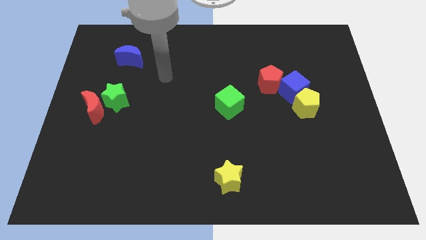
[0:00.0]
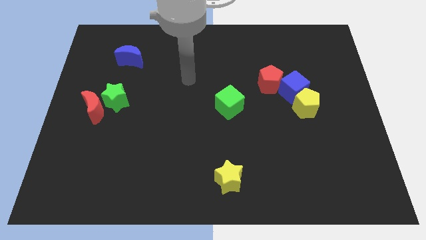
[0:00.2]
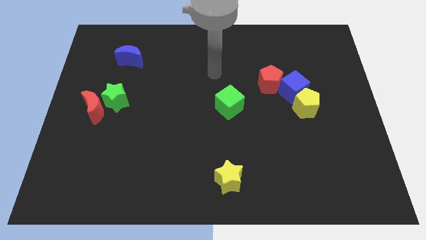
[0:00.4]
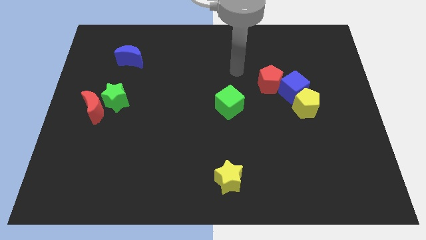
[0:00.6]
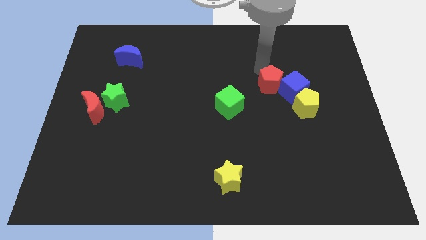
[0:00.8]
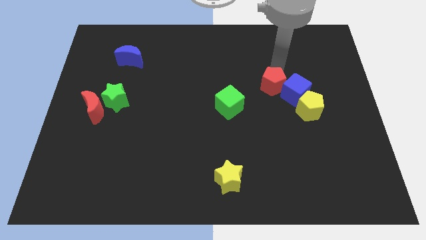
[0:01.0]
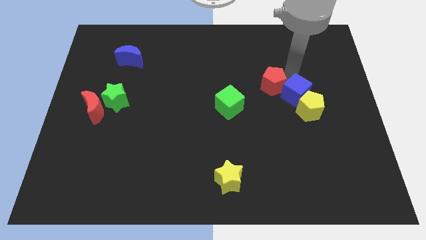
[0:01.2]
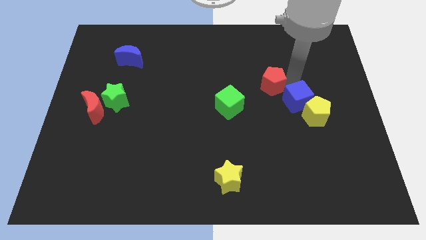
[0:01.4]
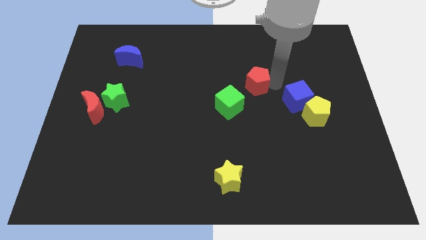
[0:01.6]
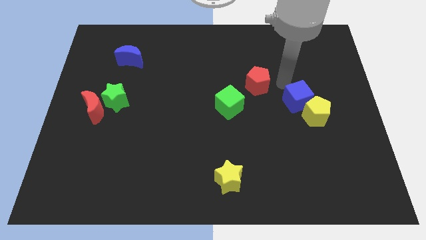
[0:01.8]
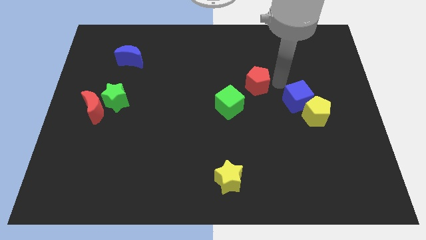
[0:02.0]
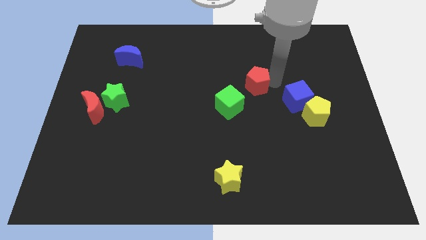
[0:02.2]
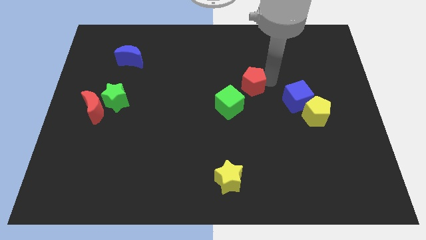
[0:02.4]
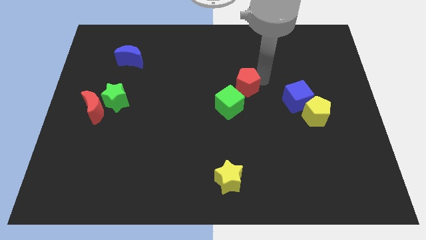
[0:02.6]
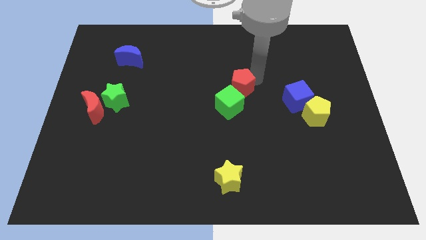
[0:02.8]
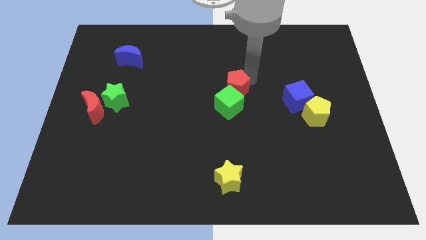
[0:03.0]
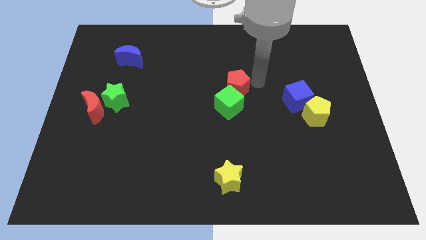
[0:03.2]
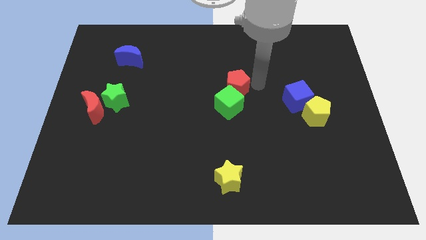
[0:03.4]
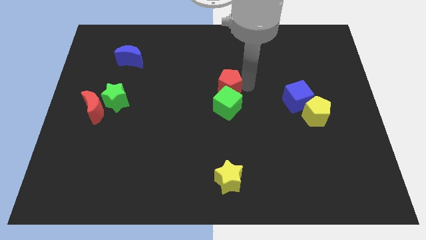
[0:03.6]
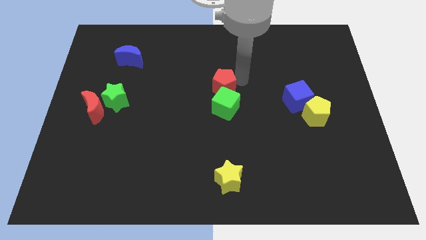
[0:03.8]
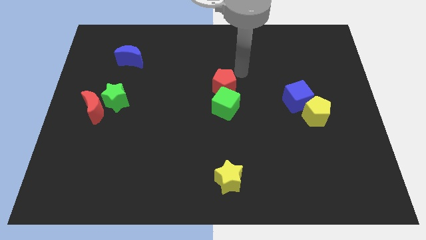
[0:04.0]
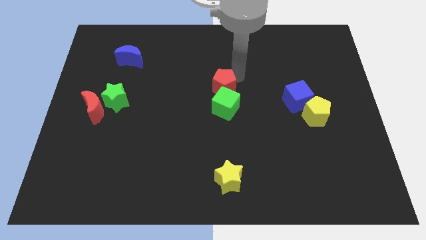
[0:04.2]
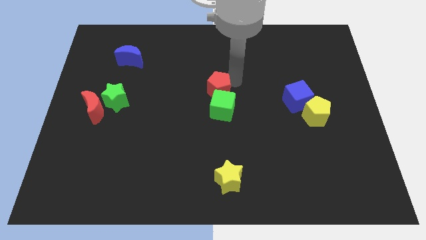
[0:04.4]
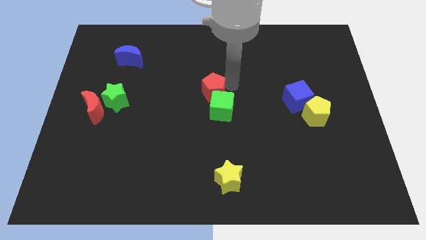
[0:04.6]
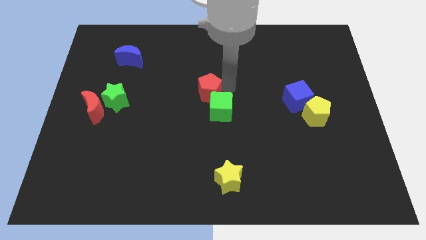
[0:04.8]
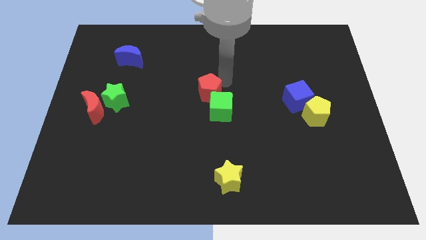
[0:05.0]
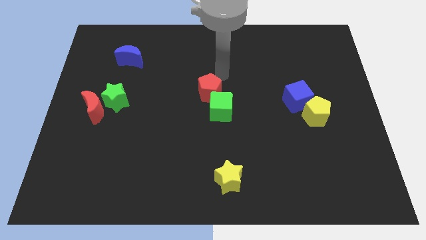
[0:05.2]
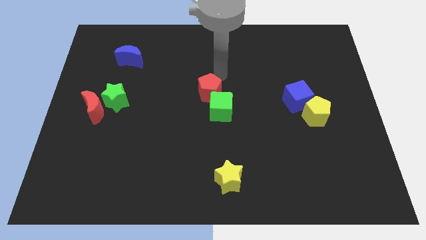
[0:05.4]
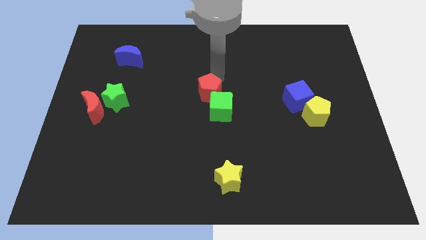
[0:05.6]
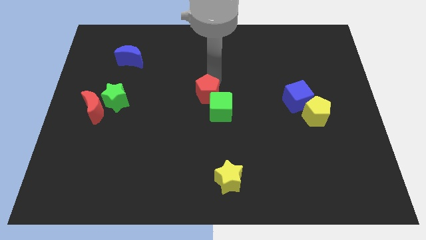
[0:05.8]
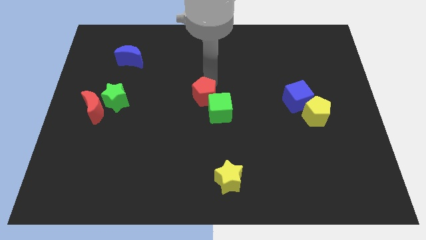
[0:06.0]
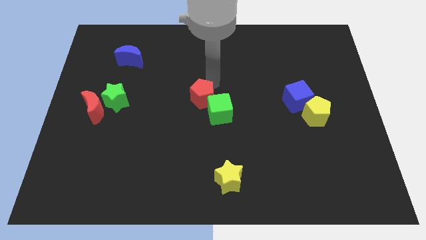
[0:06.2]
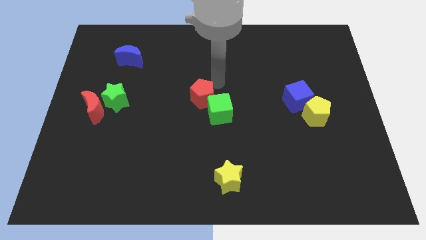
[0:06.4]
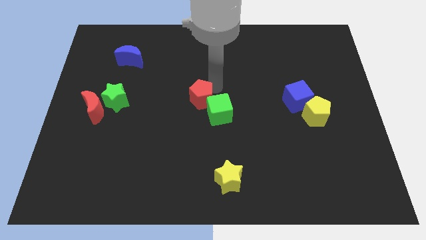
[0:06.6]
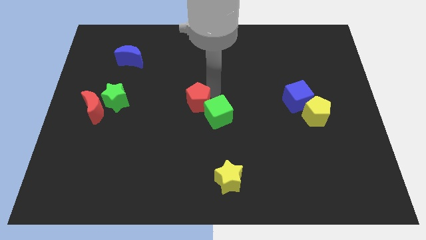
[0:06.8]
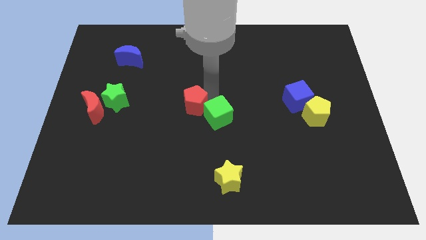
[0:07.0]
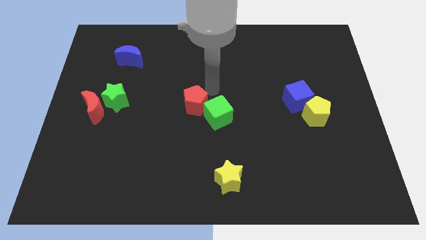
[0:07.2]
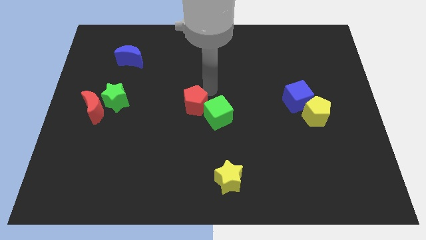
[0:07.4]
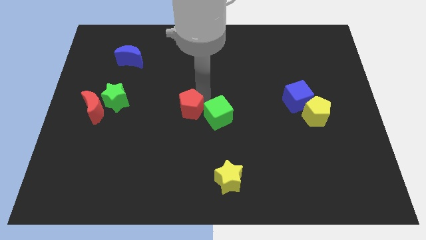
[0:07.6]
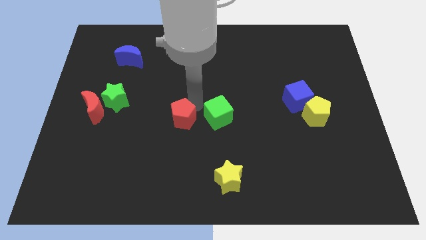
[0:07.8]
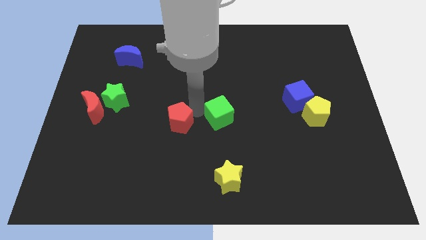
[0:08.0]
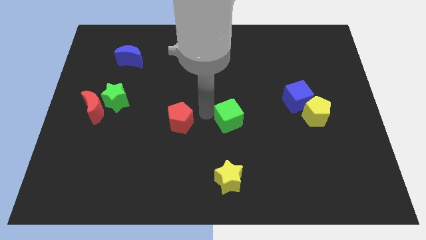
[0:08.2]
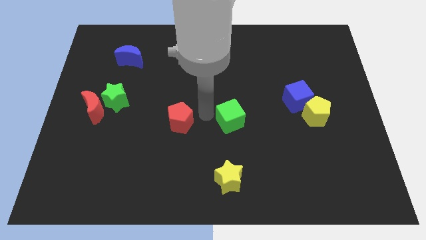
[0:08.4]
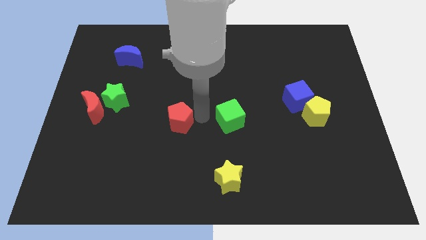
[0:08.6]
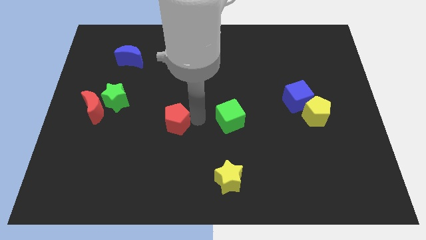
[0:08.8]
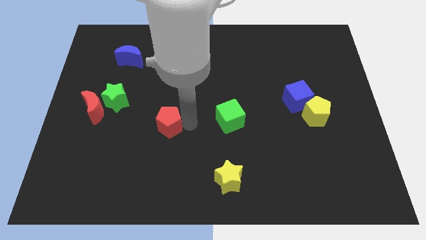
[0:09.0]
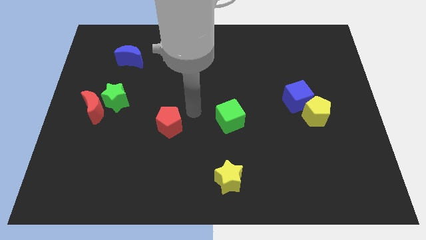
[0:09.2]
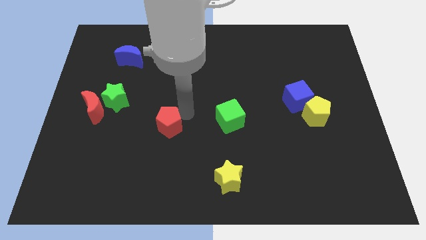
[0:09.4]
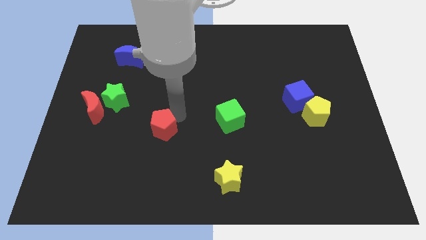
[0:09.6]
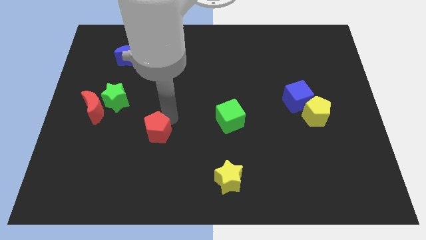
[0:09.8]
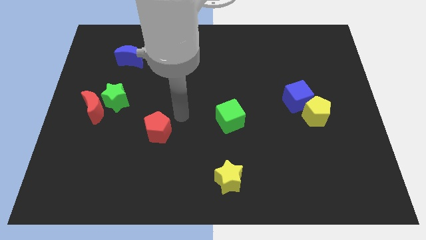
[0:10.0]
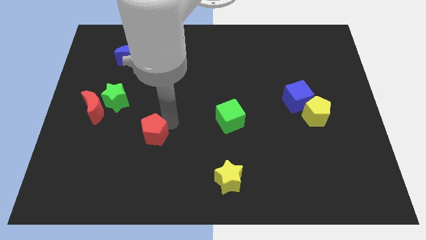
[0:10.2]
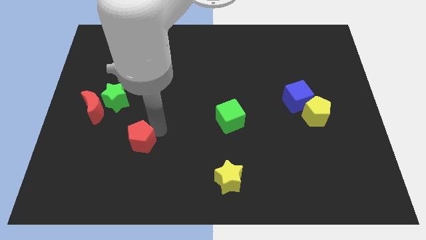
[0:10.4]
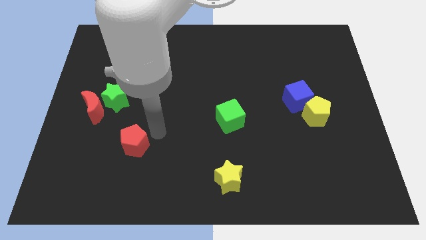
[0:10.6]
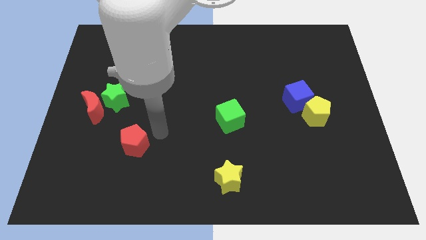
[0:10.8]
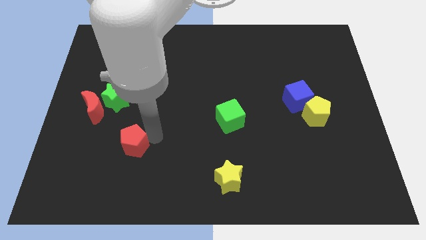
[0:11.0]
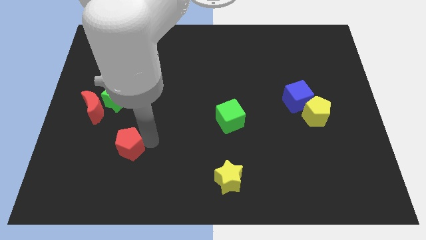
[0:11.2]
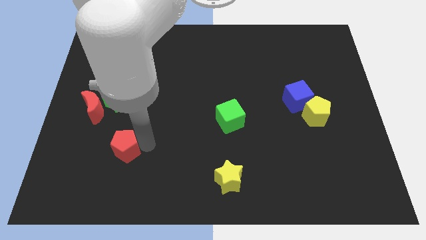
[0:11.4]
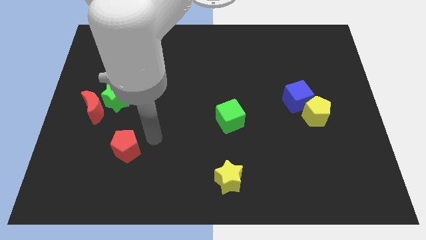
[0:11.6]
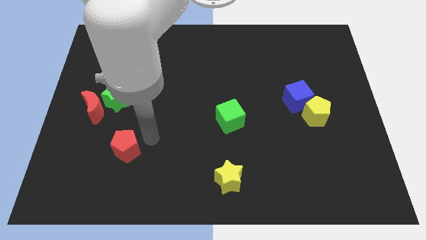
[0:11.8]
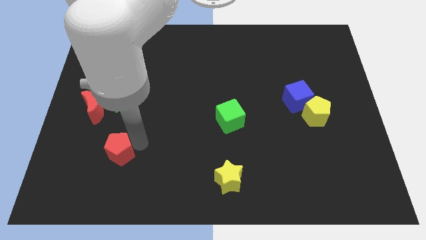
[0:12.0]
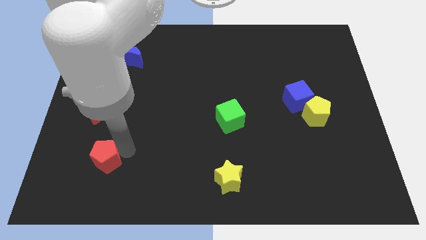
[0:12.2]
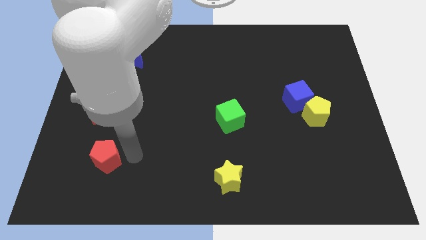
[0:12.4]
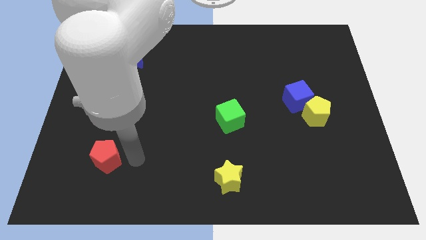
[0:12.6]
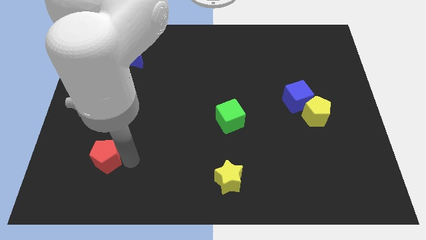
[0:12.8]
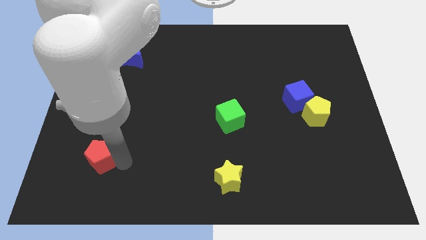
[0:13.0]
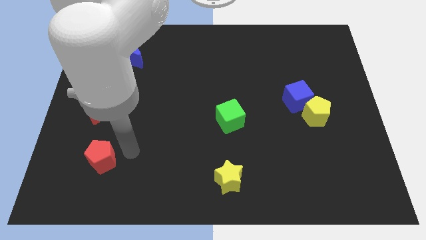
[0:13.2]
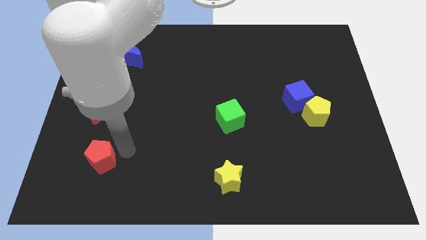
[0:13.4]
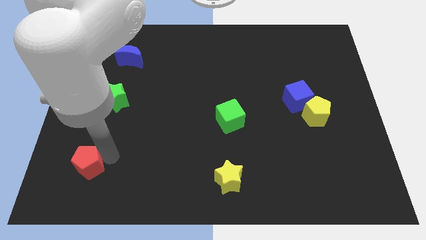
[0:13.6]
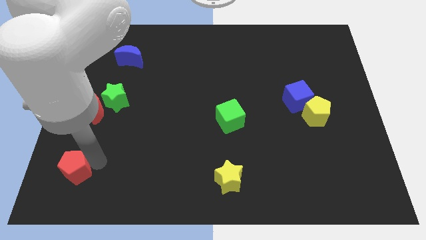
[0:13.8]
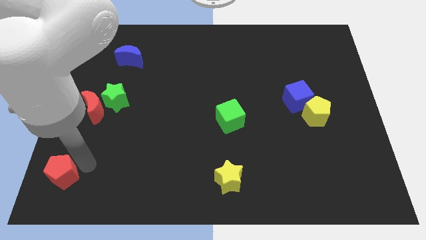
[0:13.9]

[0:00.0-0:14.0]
move the red pentagon to the lower left corner

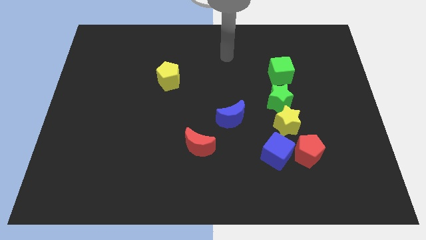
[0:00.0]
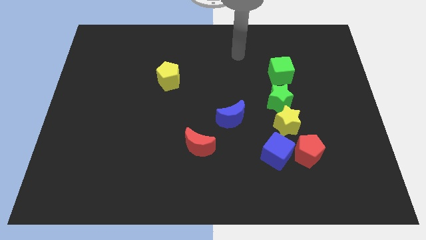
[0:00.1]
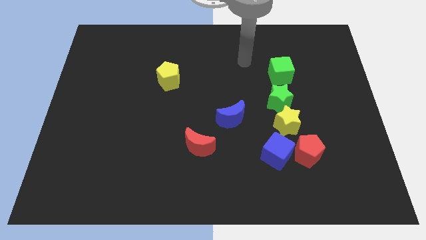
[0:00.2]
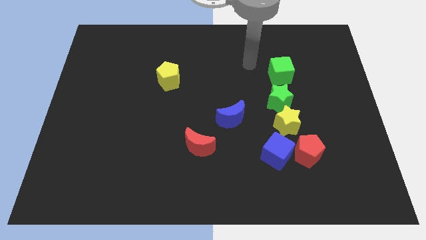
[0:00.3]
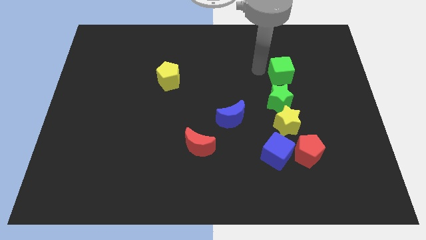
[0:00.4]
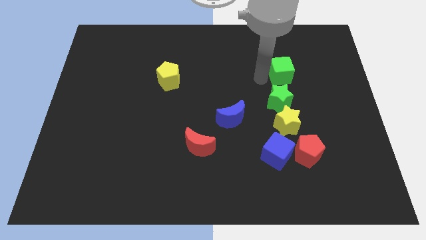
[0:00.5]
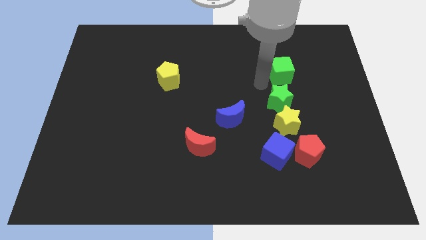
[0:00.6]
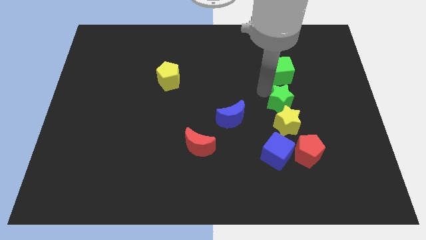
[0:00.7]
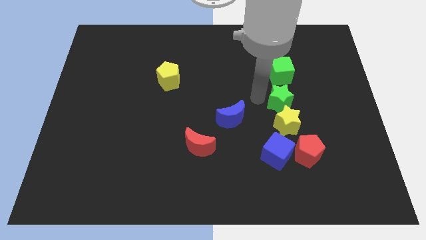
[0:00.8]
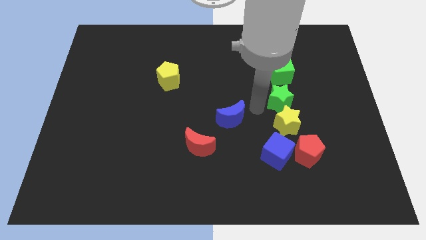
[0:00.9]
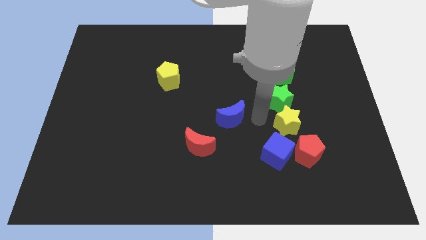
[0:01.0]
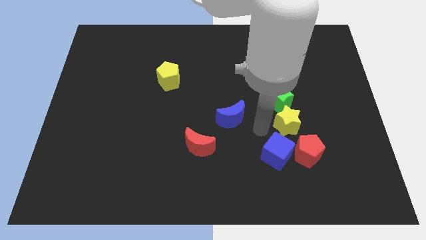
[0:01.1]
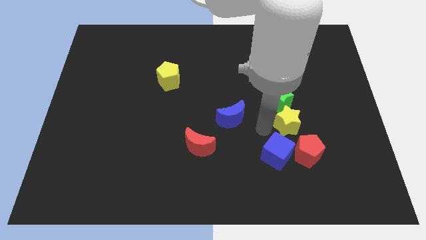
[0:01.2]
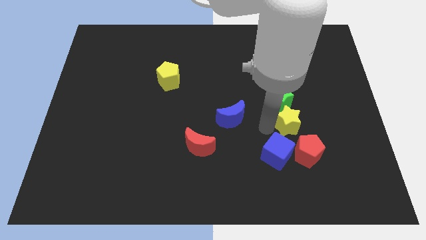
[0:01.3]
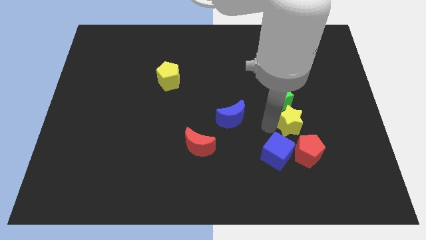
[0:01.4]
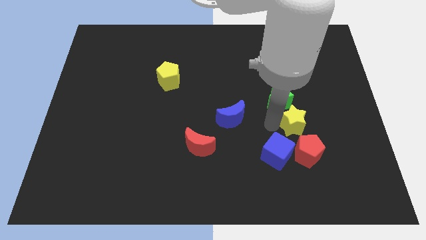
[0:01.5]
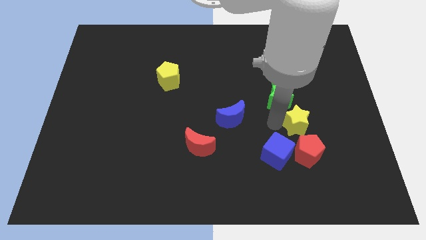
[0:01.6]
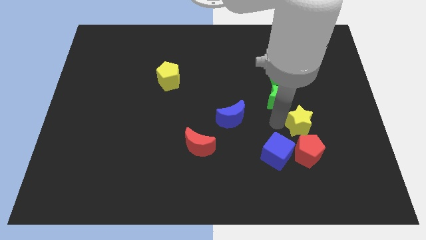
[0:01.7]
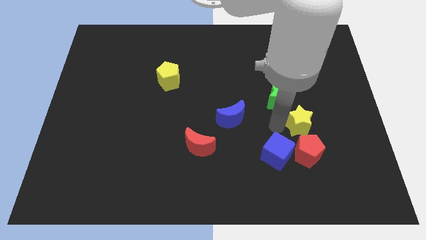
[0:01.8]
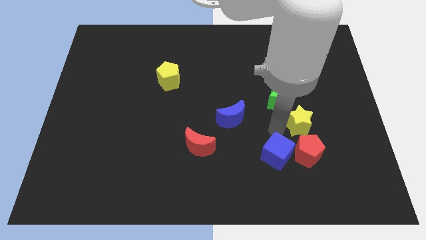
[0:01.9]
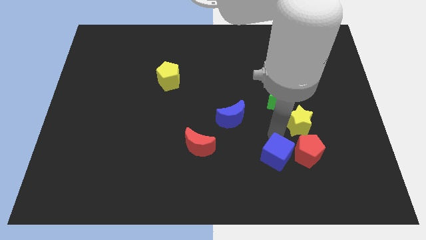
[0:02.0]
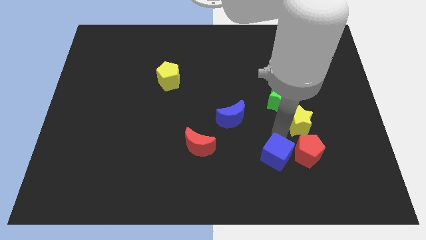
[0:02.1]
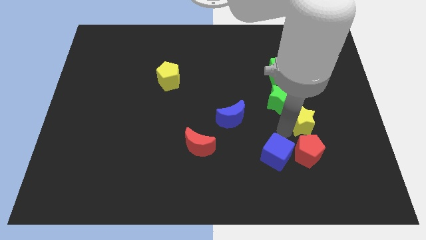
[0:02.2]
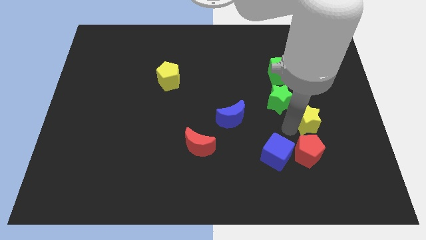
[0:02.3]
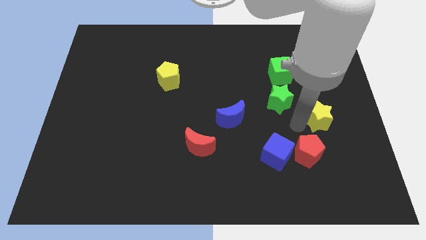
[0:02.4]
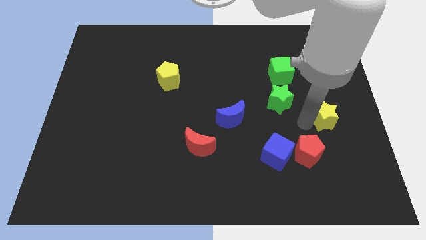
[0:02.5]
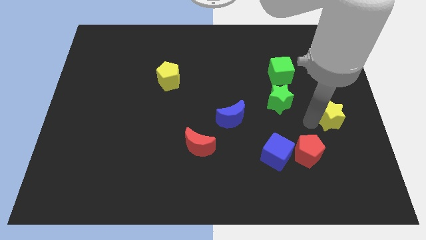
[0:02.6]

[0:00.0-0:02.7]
put the yellow star to the right side
